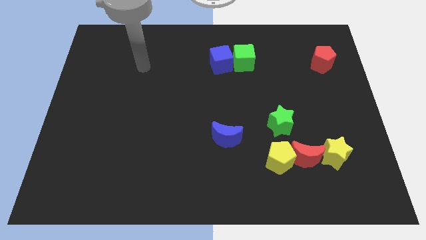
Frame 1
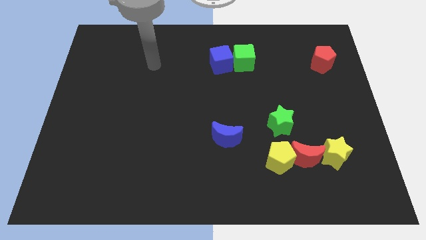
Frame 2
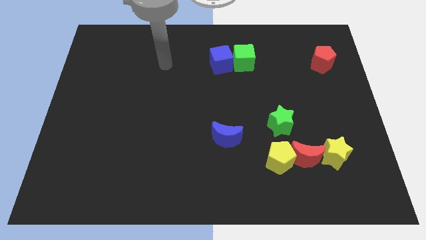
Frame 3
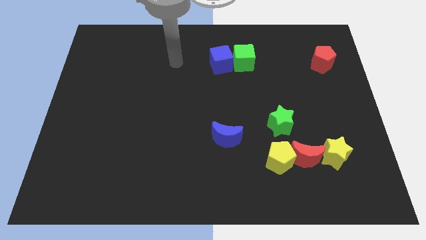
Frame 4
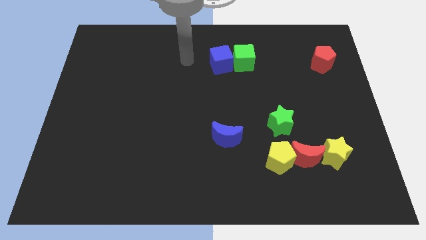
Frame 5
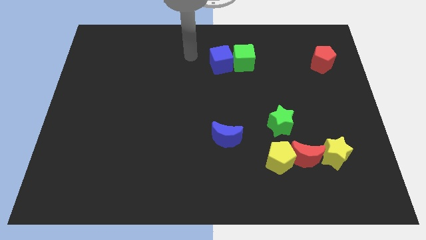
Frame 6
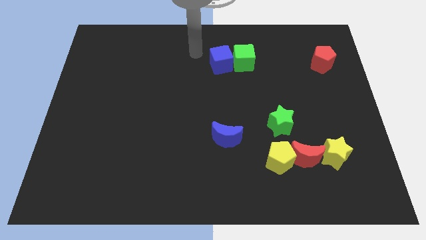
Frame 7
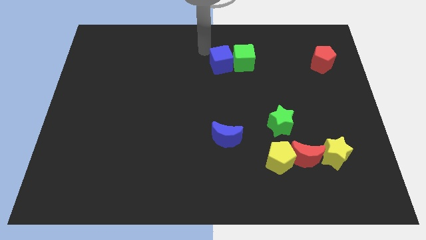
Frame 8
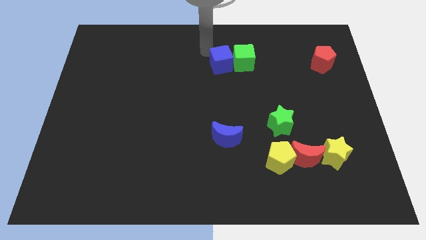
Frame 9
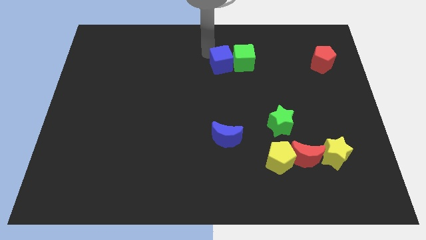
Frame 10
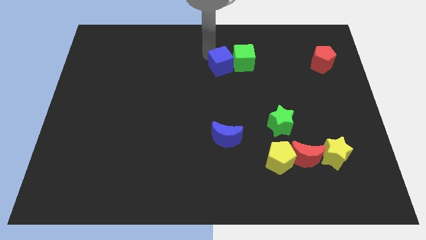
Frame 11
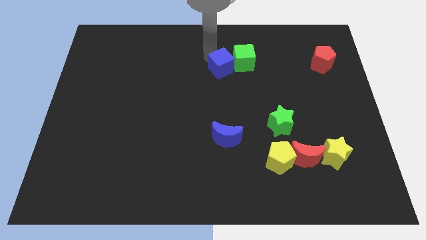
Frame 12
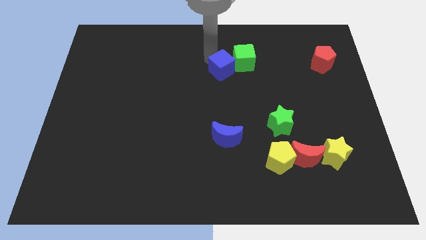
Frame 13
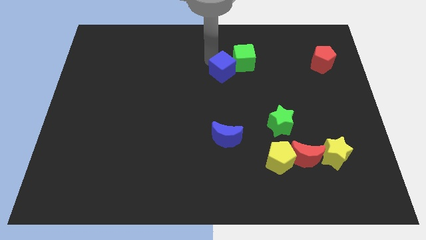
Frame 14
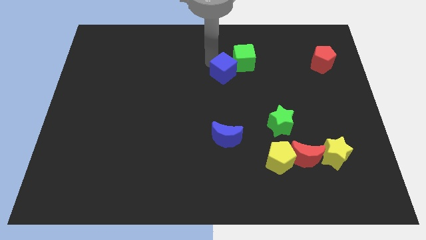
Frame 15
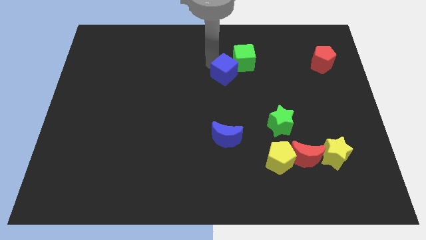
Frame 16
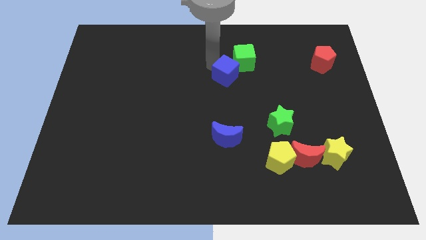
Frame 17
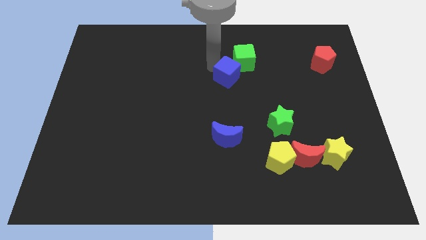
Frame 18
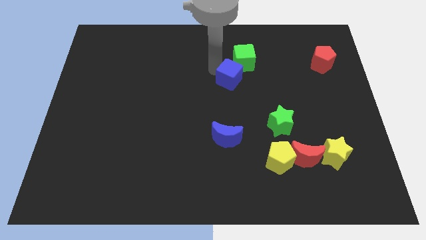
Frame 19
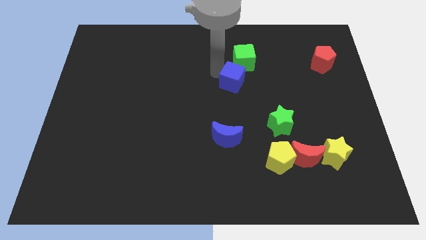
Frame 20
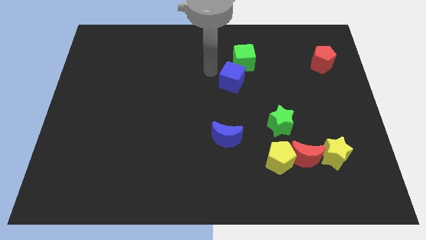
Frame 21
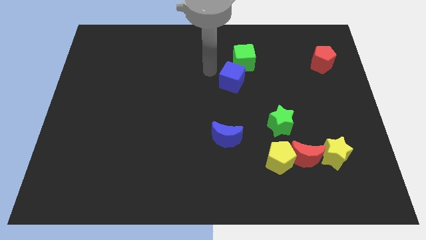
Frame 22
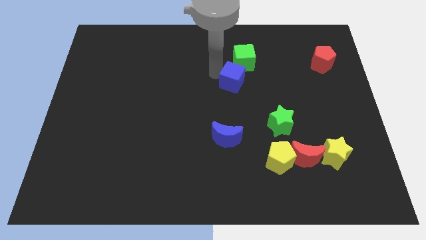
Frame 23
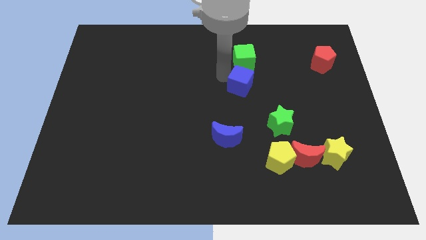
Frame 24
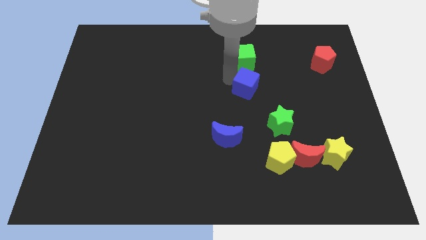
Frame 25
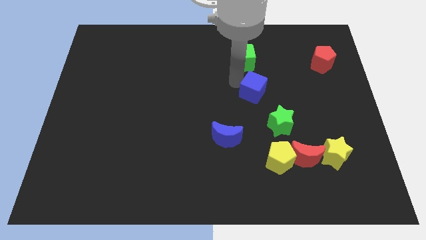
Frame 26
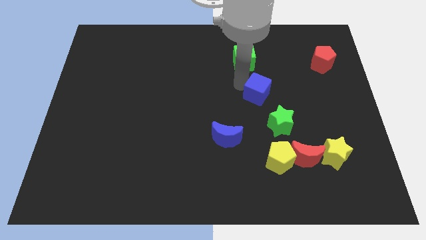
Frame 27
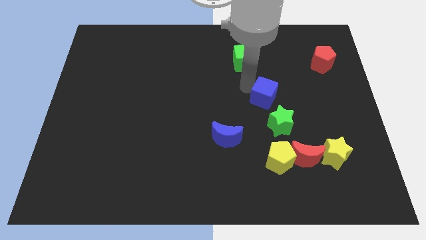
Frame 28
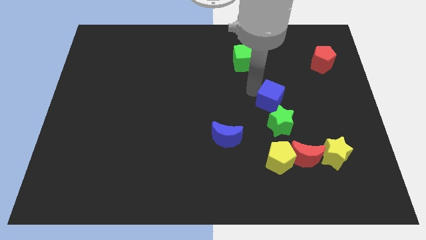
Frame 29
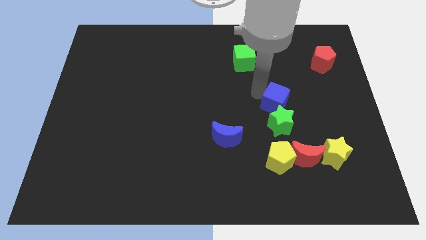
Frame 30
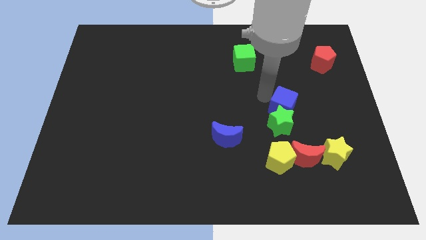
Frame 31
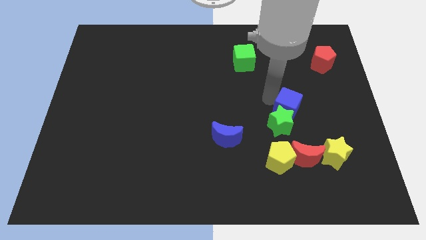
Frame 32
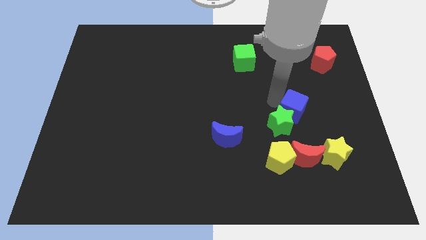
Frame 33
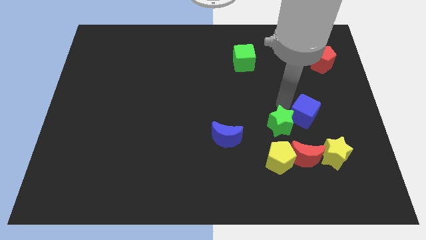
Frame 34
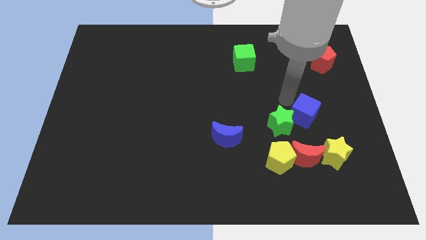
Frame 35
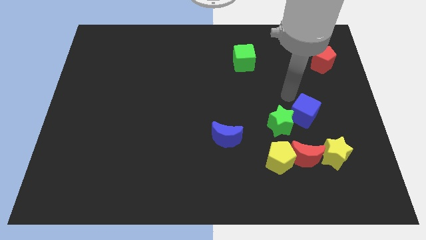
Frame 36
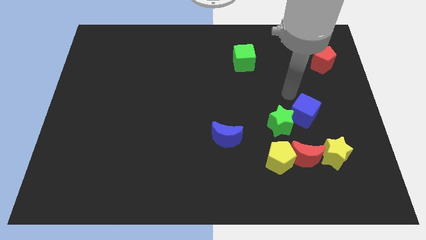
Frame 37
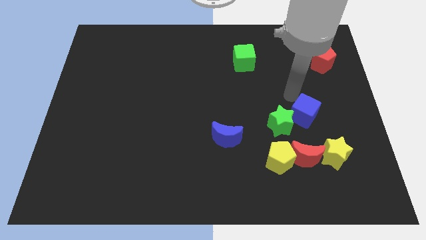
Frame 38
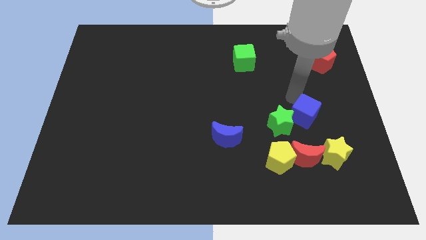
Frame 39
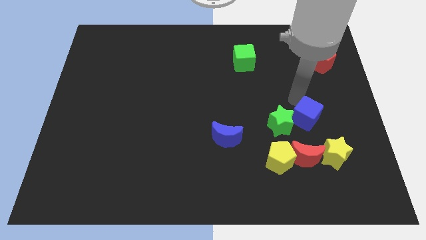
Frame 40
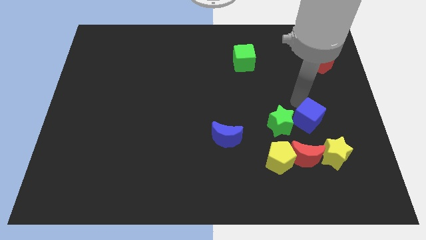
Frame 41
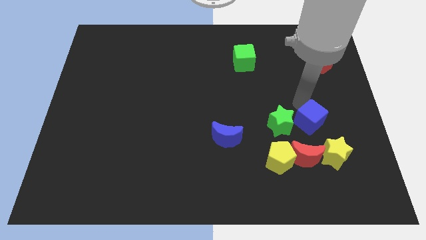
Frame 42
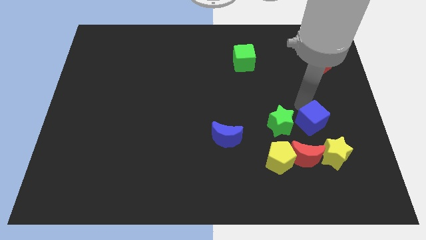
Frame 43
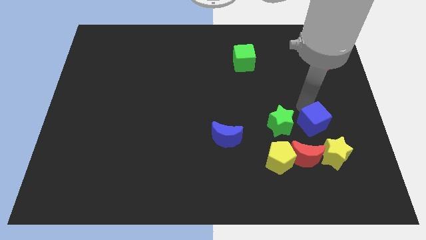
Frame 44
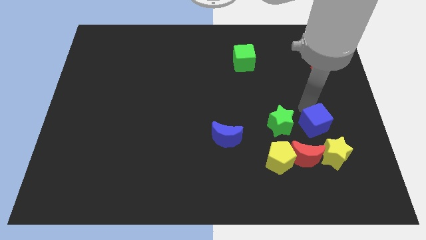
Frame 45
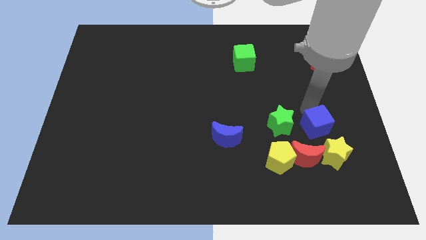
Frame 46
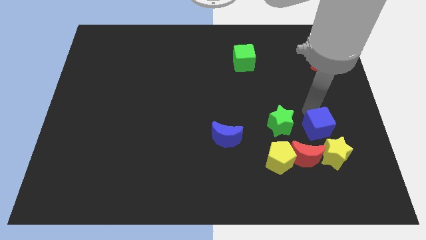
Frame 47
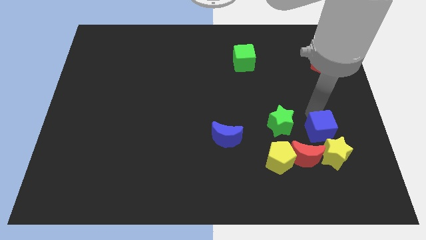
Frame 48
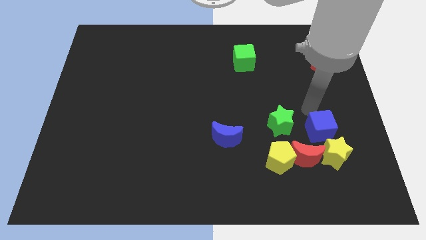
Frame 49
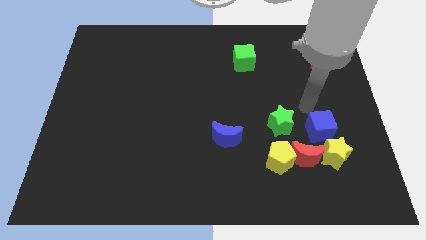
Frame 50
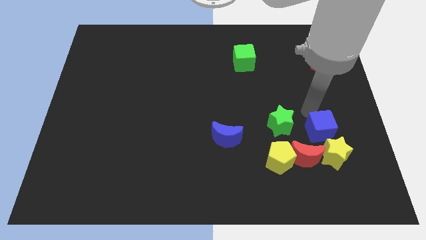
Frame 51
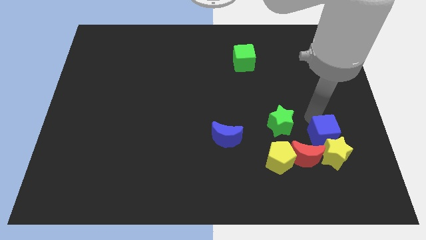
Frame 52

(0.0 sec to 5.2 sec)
put the blue cube to the yellow star

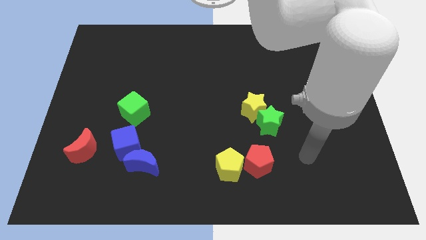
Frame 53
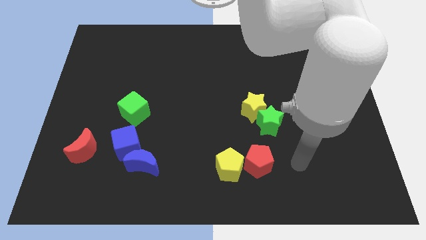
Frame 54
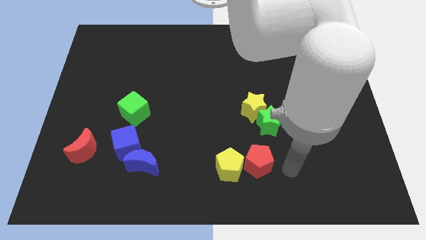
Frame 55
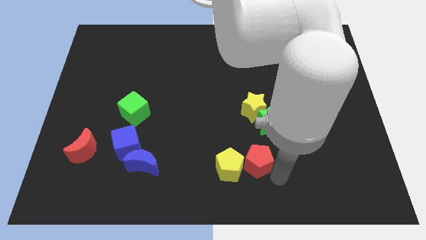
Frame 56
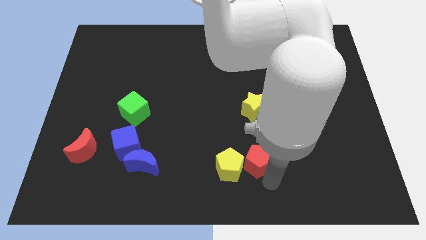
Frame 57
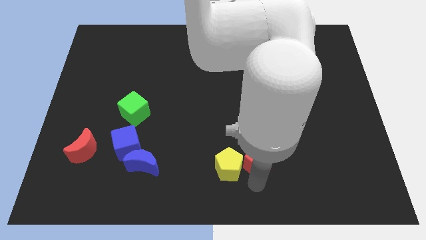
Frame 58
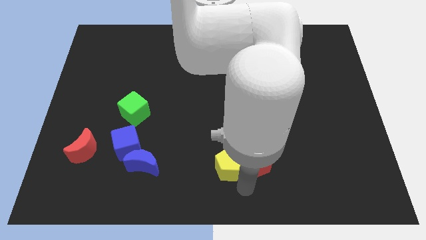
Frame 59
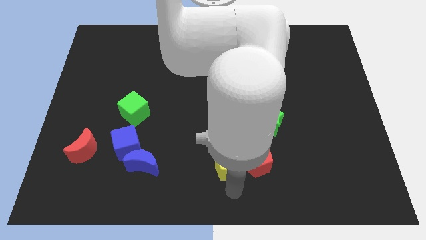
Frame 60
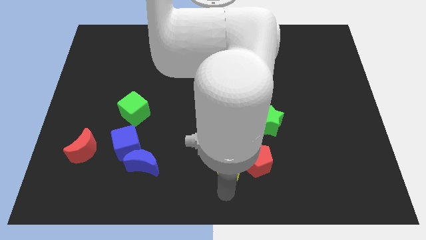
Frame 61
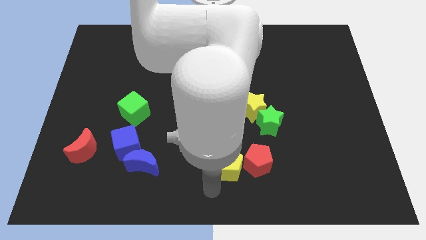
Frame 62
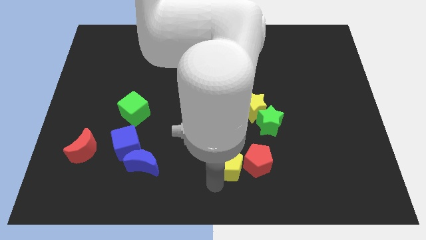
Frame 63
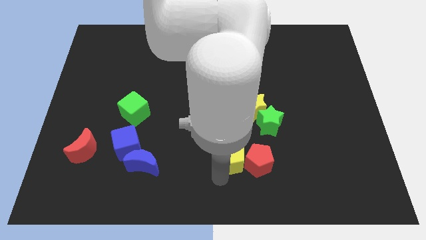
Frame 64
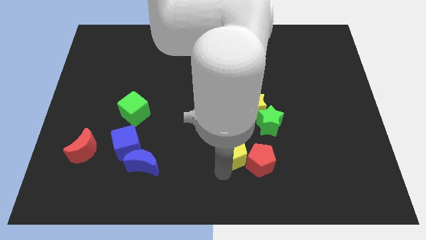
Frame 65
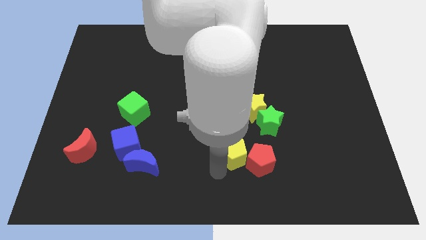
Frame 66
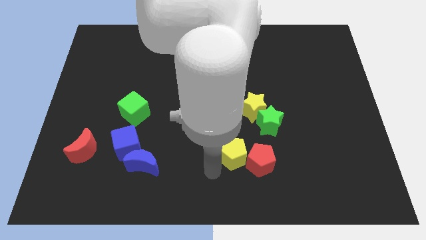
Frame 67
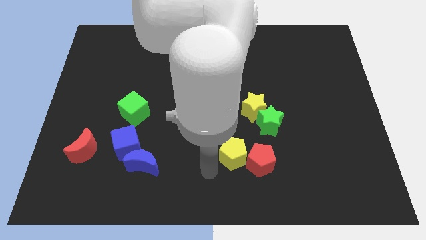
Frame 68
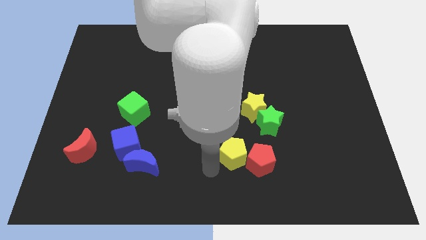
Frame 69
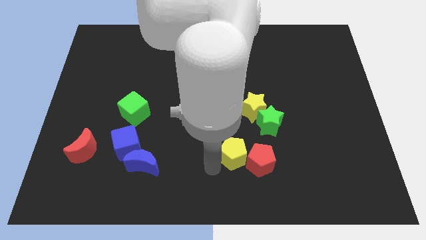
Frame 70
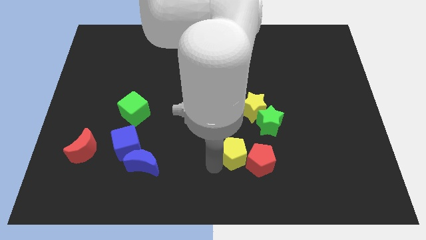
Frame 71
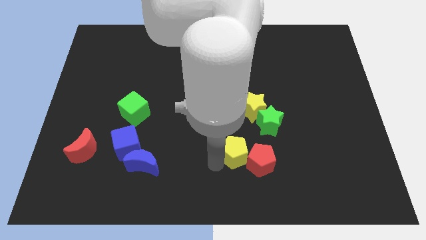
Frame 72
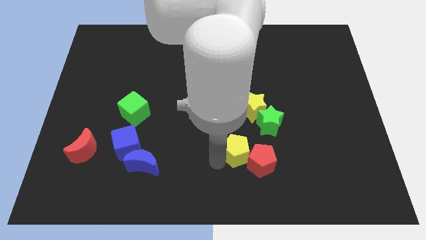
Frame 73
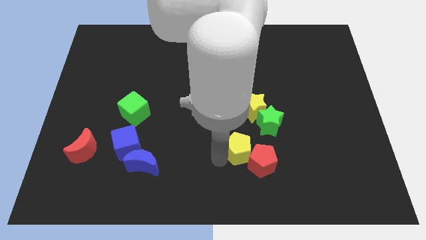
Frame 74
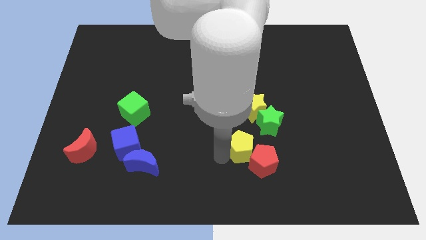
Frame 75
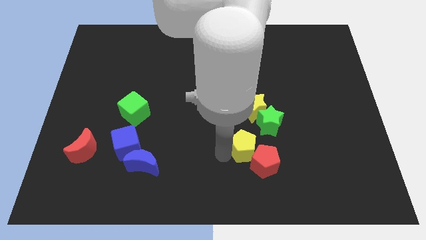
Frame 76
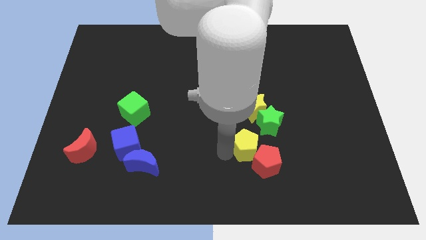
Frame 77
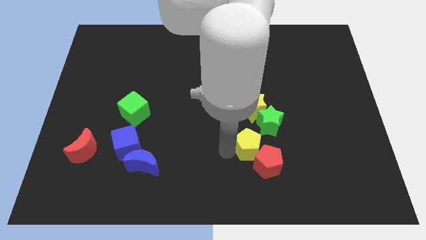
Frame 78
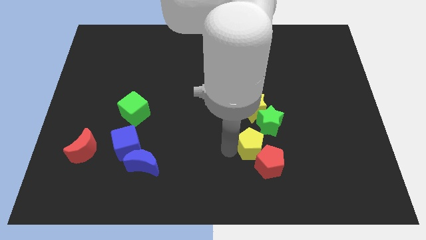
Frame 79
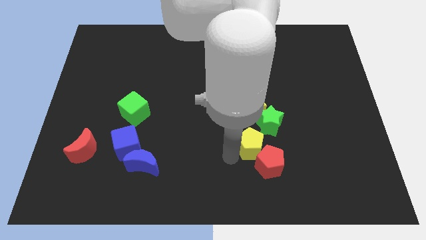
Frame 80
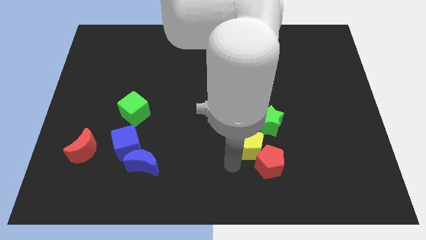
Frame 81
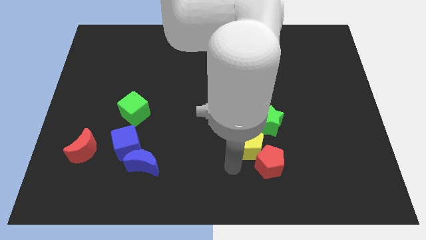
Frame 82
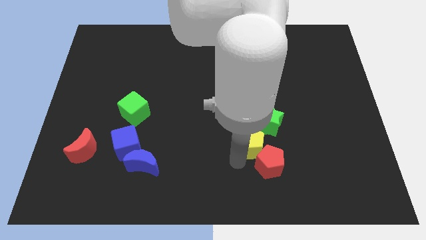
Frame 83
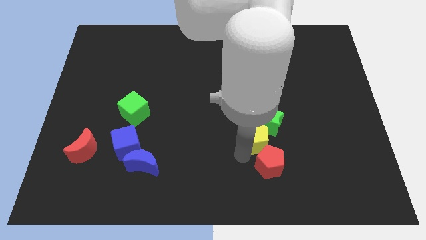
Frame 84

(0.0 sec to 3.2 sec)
push the yellow pentagon close to the green star
